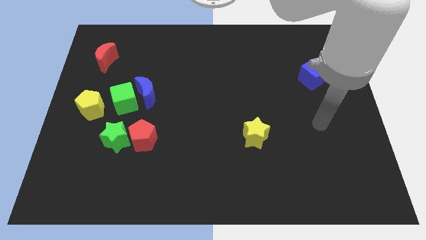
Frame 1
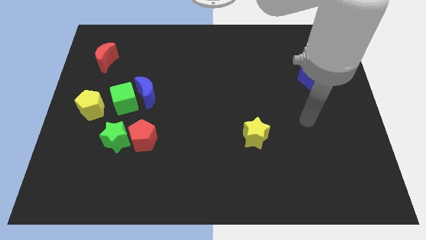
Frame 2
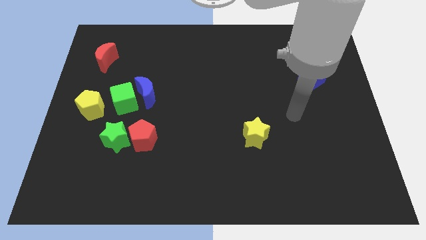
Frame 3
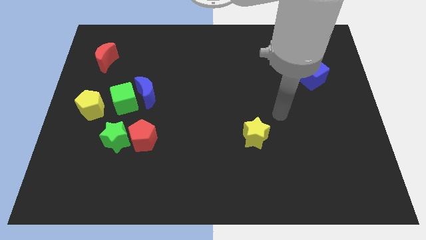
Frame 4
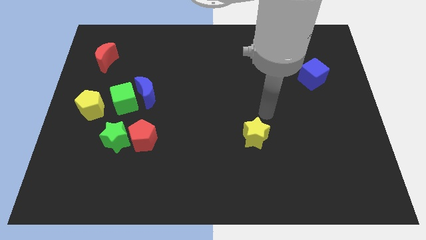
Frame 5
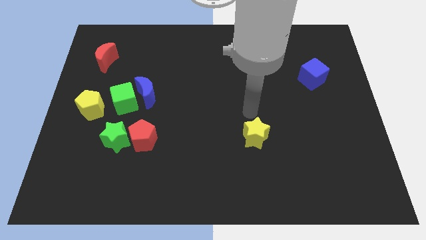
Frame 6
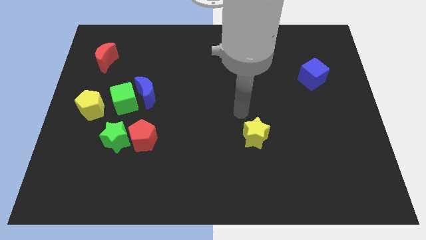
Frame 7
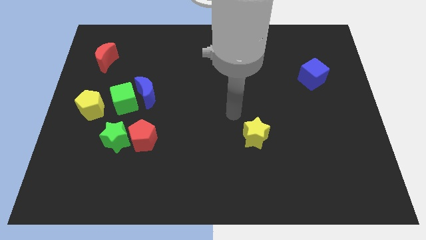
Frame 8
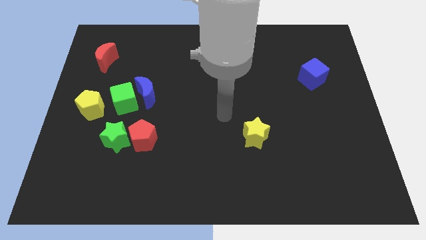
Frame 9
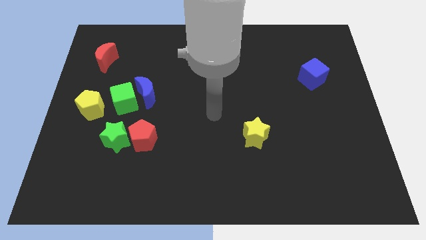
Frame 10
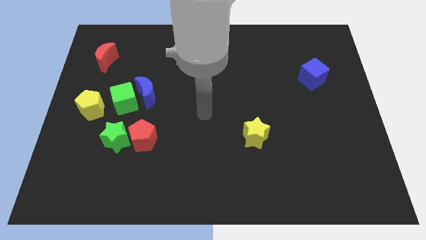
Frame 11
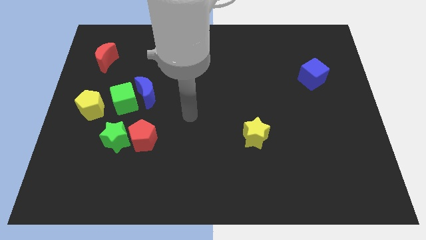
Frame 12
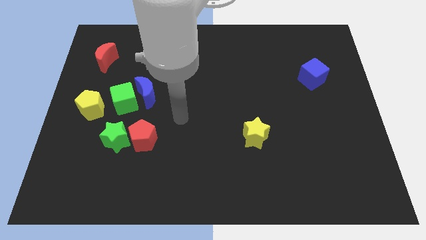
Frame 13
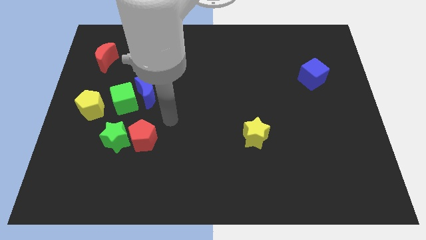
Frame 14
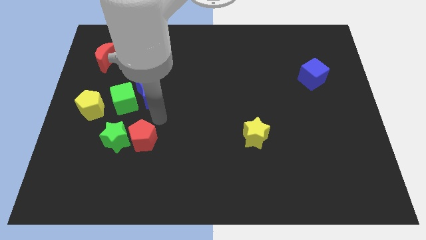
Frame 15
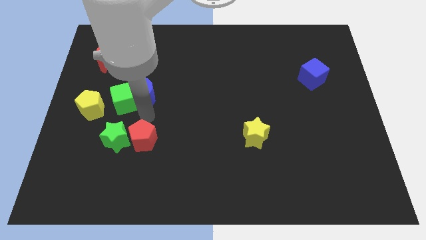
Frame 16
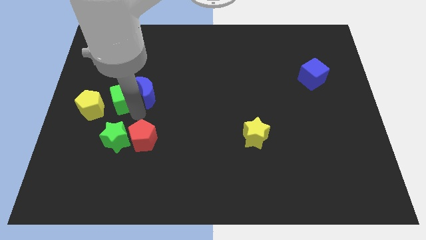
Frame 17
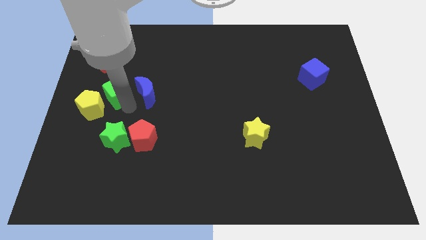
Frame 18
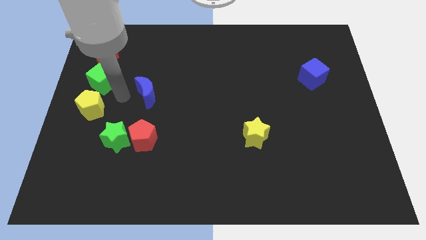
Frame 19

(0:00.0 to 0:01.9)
move the blue moon away from the green cube

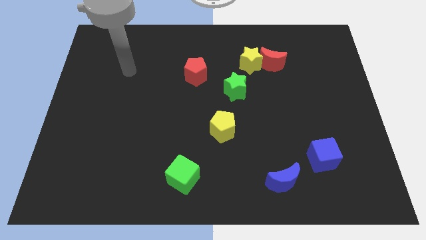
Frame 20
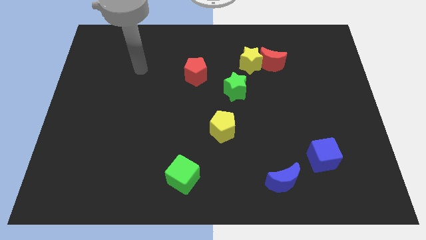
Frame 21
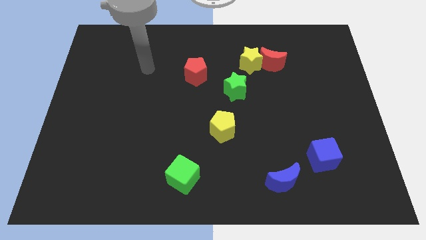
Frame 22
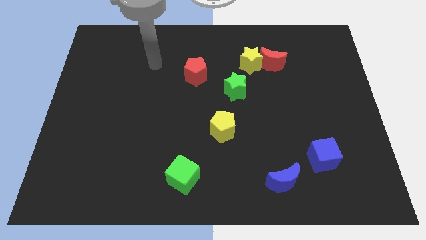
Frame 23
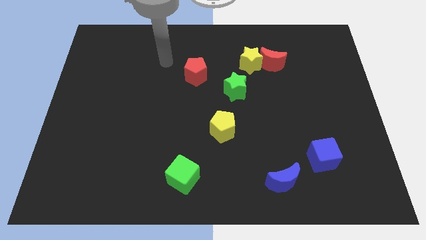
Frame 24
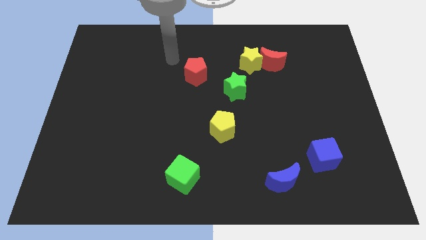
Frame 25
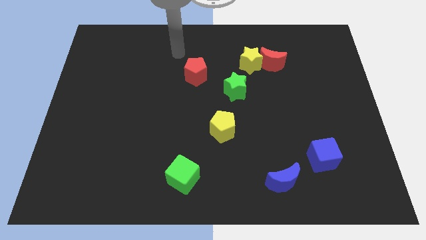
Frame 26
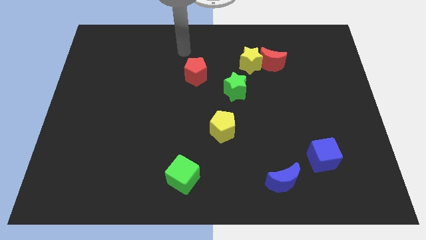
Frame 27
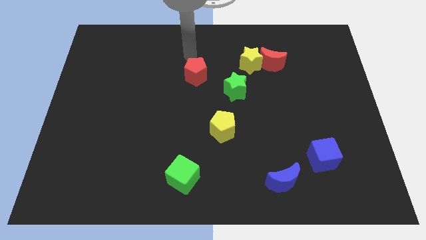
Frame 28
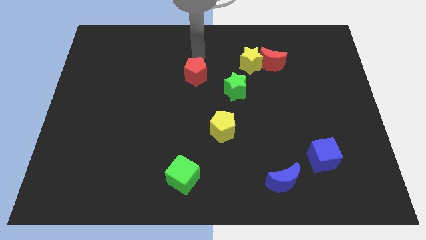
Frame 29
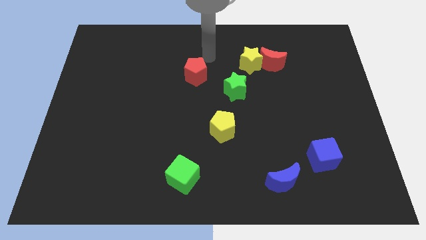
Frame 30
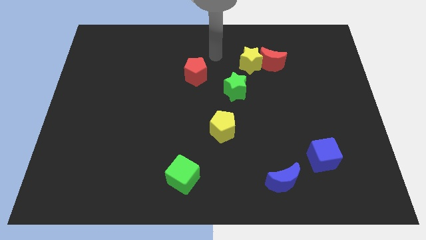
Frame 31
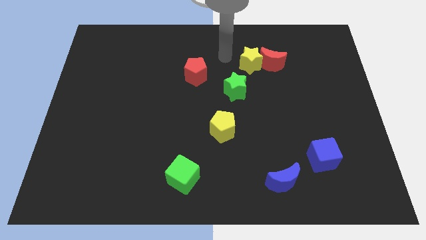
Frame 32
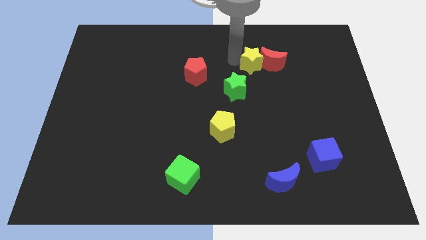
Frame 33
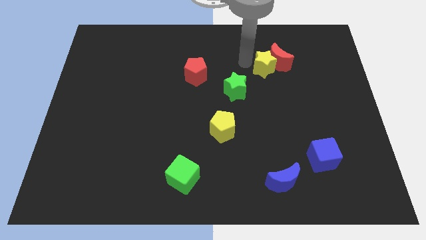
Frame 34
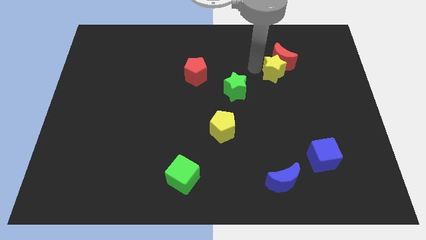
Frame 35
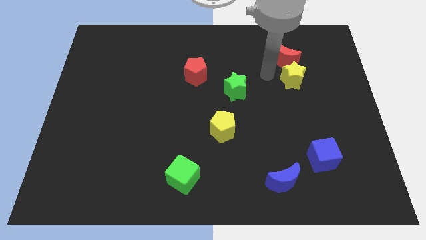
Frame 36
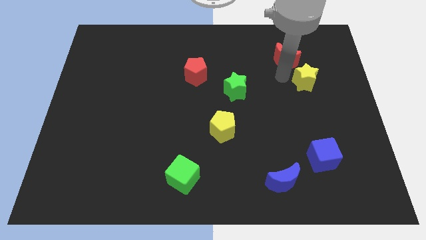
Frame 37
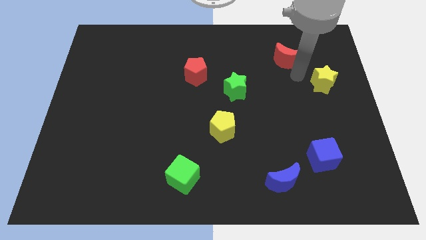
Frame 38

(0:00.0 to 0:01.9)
separate the red moon from the yellow star

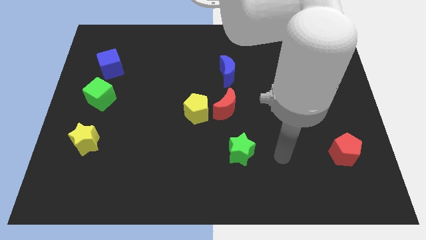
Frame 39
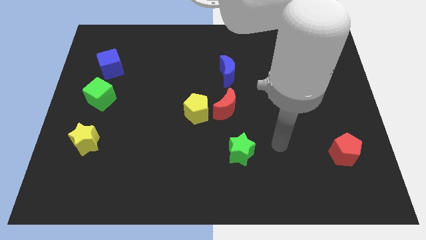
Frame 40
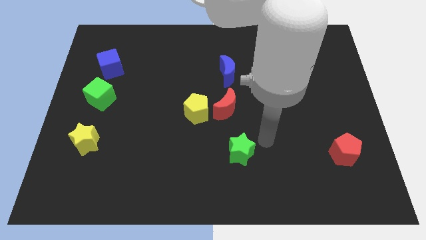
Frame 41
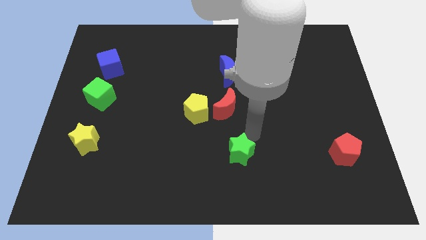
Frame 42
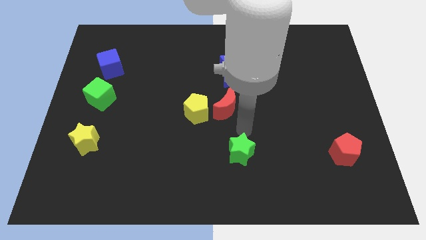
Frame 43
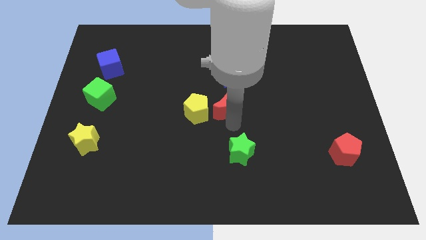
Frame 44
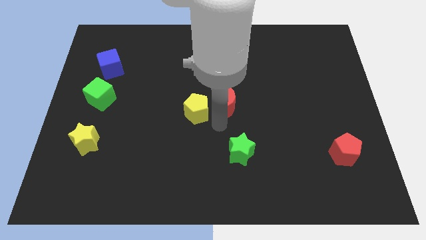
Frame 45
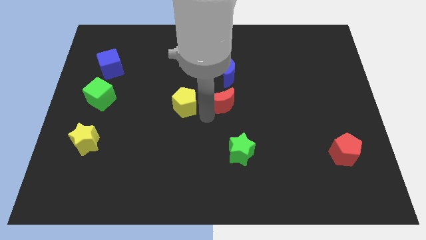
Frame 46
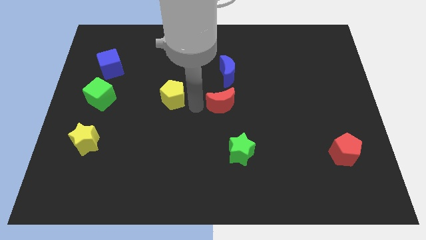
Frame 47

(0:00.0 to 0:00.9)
move the red moon away from the yellow pentagon

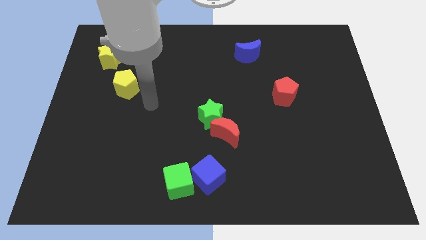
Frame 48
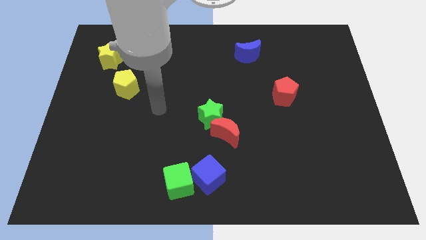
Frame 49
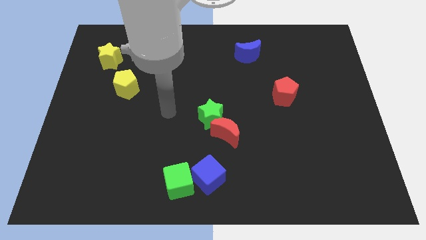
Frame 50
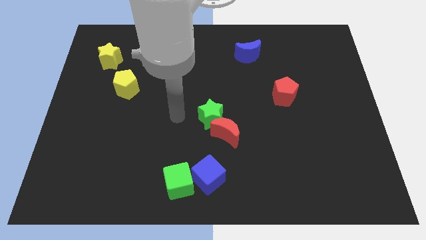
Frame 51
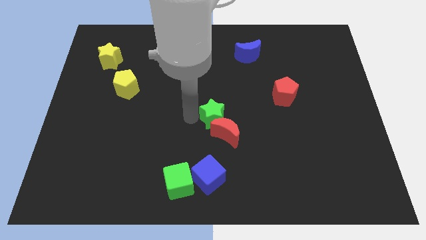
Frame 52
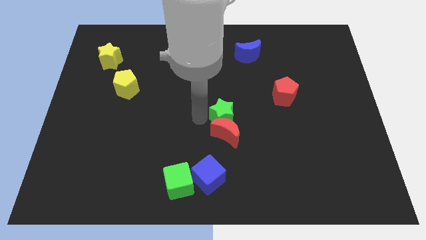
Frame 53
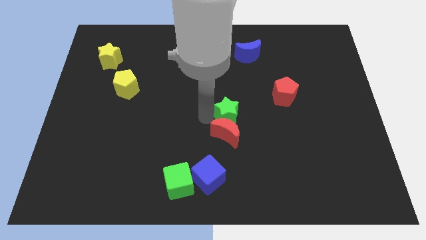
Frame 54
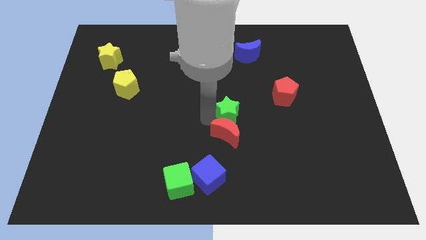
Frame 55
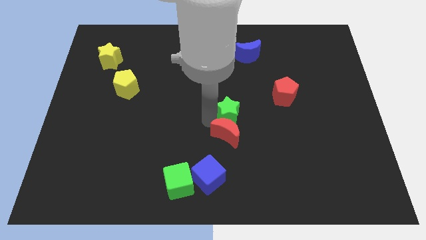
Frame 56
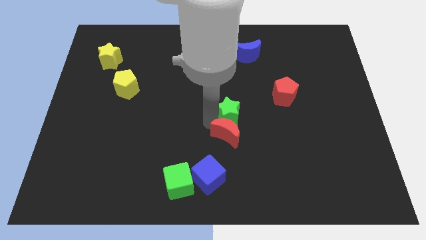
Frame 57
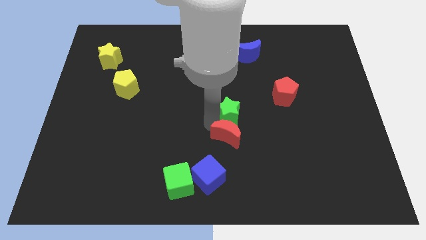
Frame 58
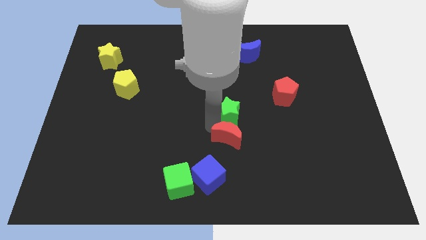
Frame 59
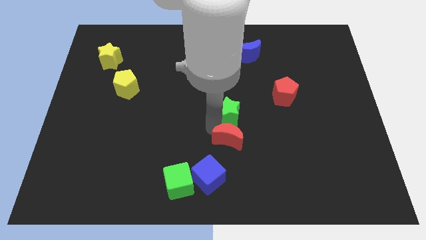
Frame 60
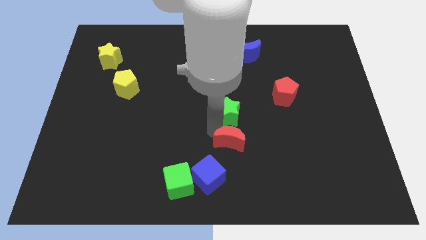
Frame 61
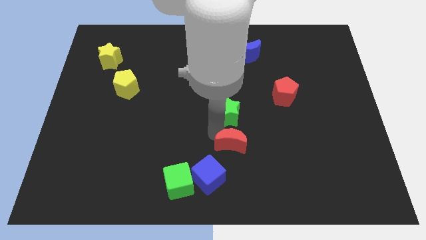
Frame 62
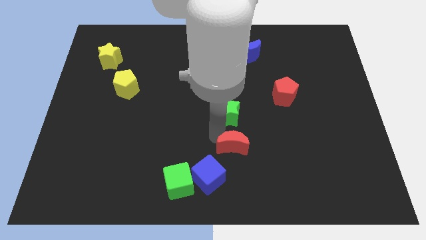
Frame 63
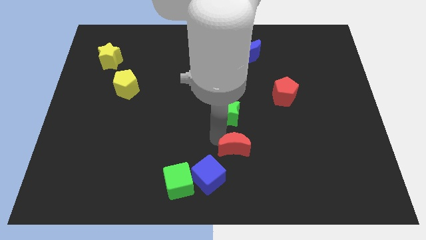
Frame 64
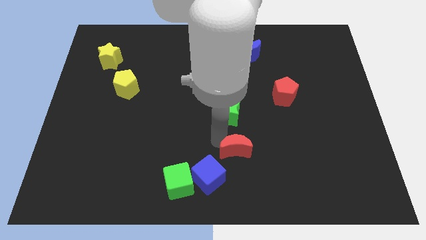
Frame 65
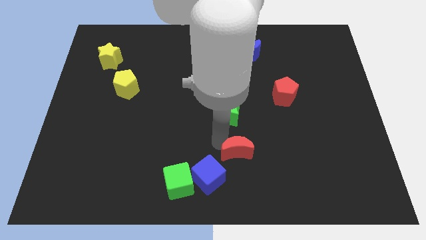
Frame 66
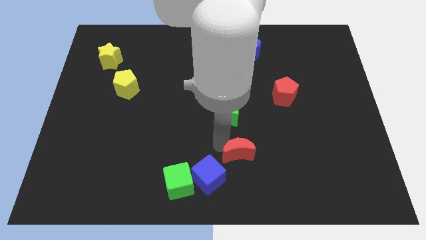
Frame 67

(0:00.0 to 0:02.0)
pull the red moon apart from the green star

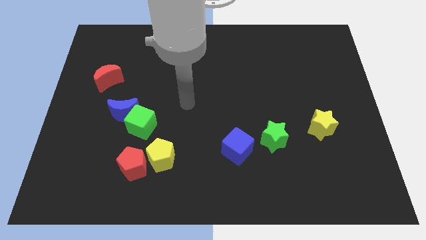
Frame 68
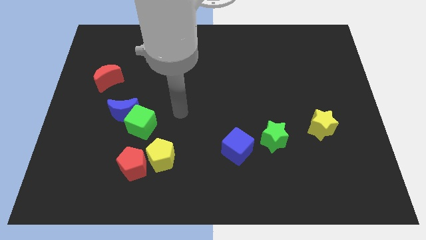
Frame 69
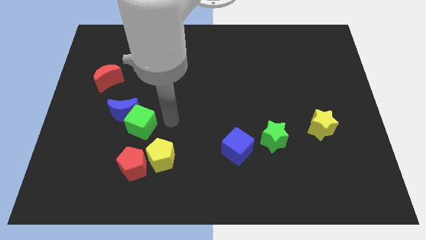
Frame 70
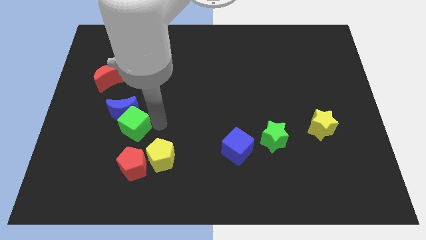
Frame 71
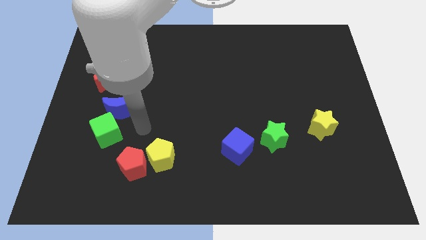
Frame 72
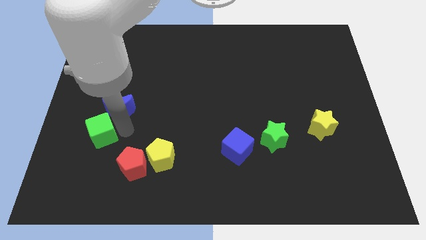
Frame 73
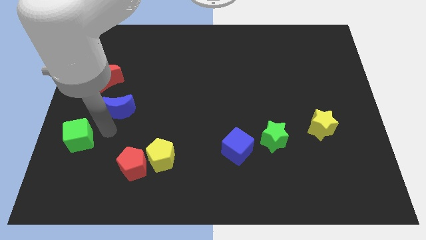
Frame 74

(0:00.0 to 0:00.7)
pull the blue moon apart from the green cube

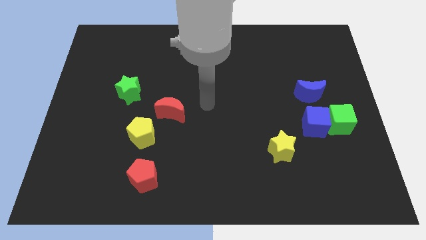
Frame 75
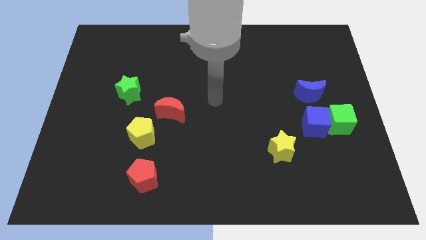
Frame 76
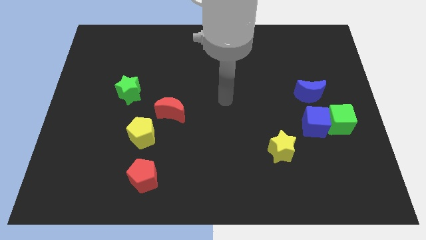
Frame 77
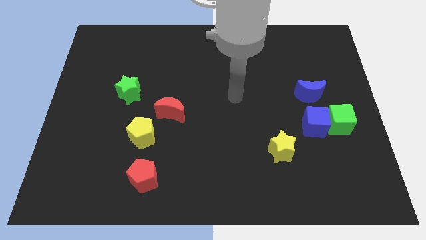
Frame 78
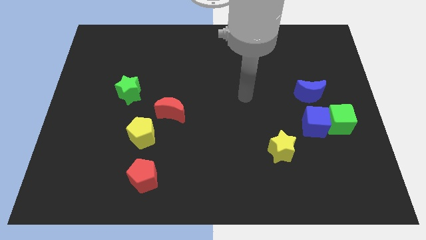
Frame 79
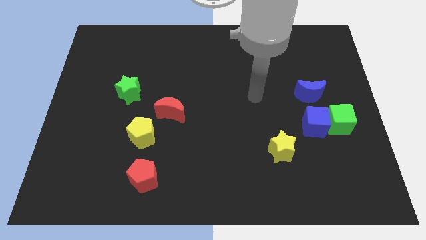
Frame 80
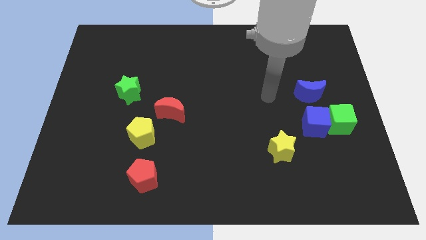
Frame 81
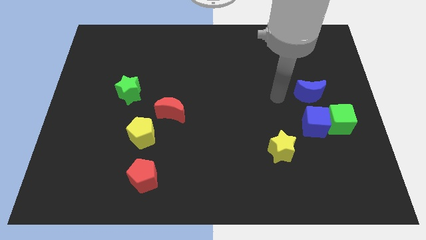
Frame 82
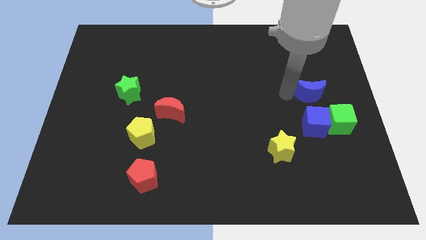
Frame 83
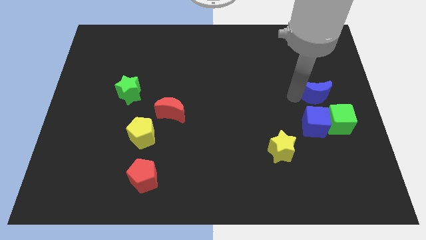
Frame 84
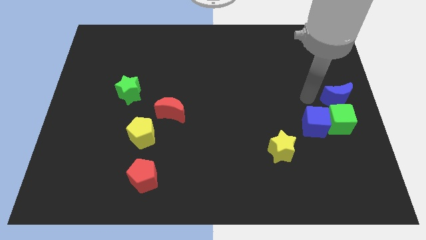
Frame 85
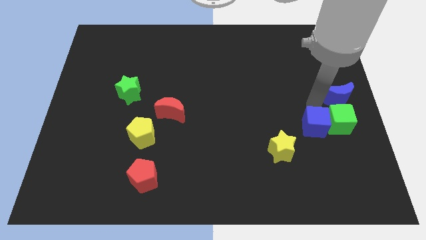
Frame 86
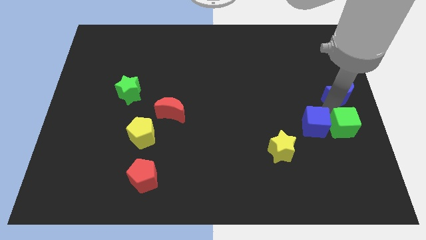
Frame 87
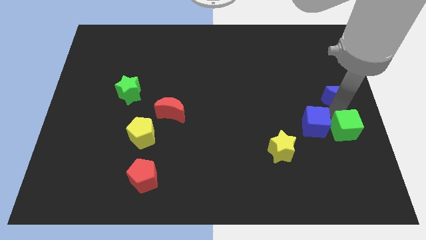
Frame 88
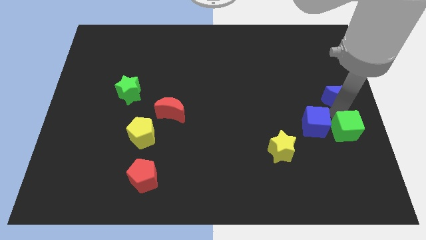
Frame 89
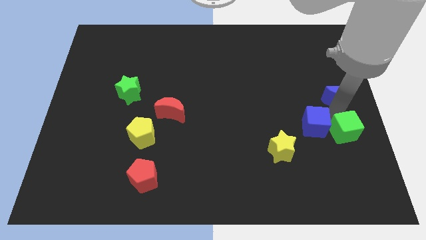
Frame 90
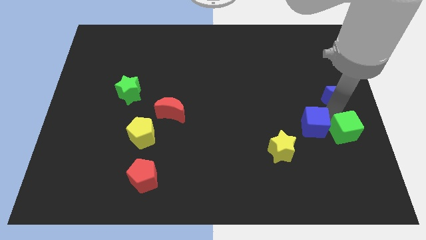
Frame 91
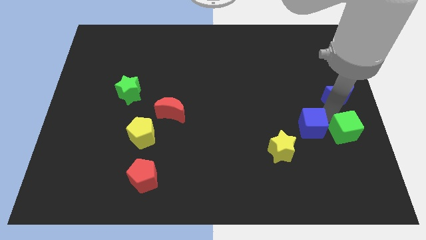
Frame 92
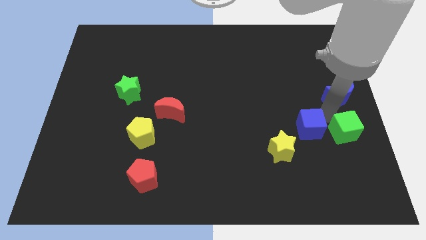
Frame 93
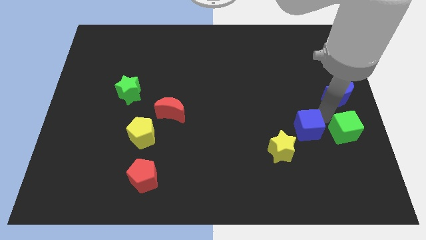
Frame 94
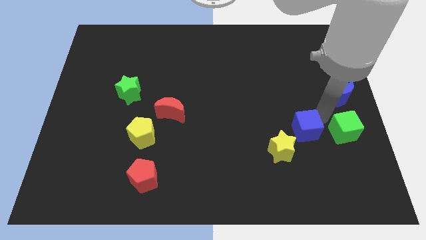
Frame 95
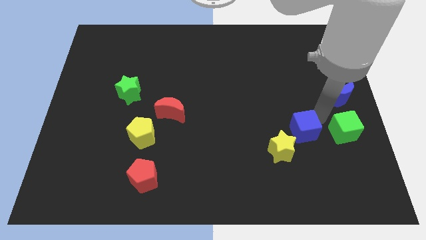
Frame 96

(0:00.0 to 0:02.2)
separate the blue cube from the green cube and blue moon
